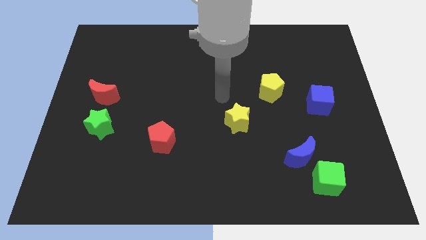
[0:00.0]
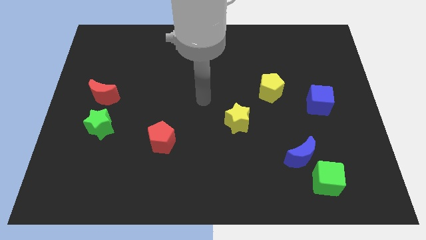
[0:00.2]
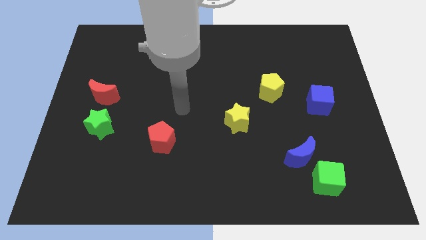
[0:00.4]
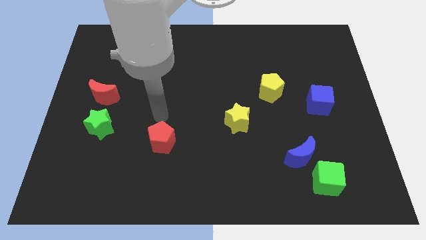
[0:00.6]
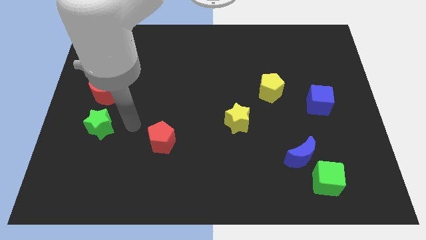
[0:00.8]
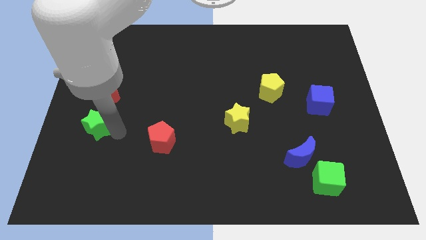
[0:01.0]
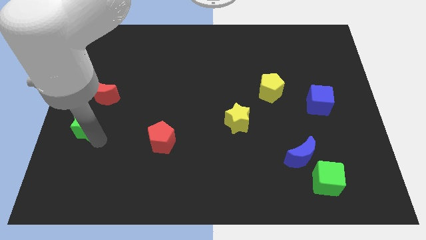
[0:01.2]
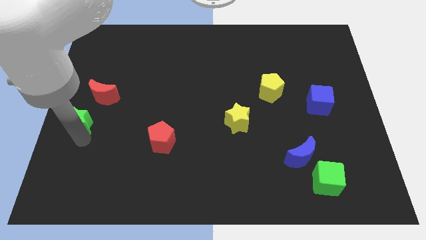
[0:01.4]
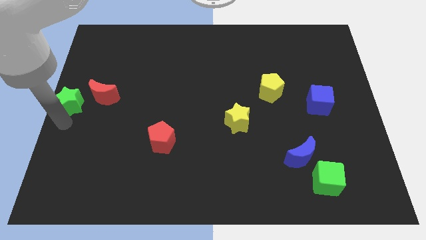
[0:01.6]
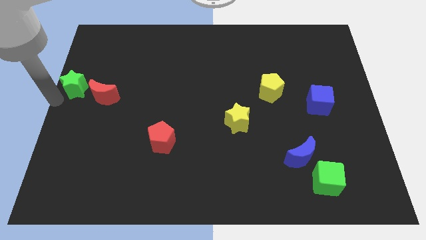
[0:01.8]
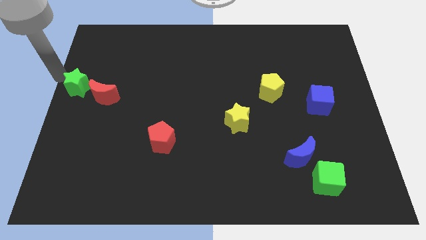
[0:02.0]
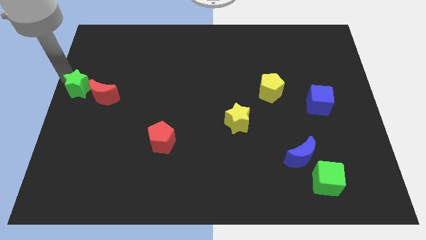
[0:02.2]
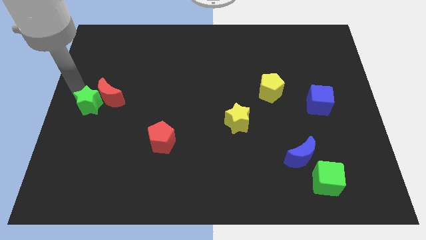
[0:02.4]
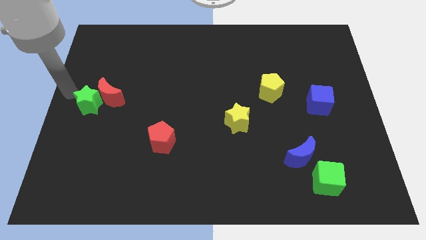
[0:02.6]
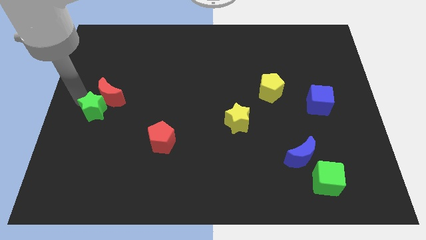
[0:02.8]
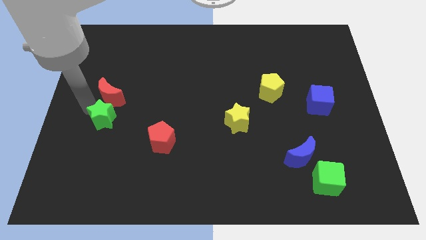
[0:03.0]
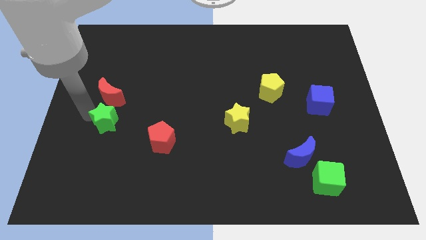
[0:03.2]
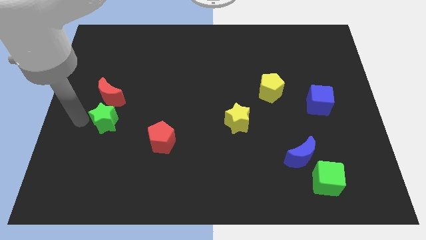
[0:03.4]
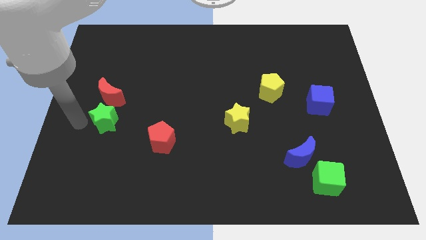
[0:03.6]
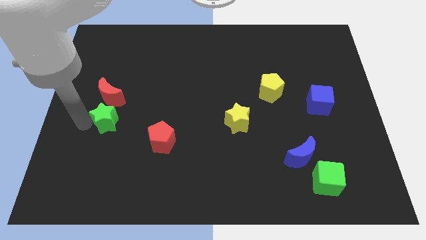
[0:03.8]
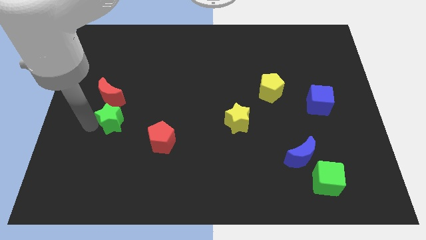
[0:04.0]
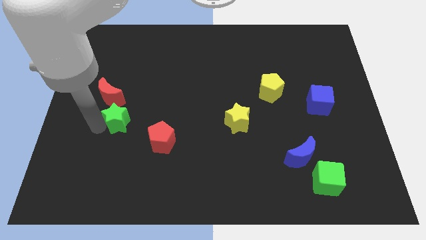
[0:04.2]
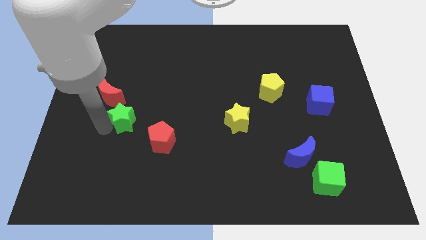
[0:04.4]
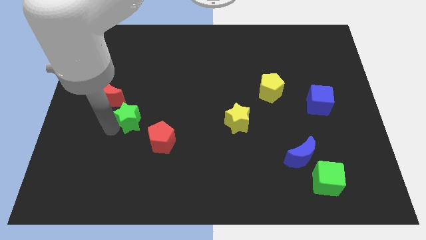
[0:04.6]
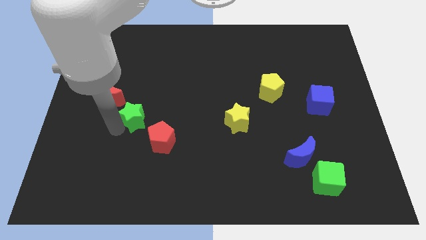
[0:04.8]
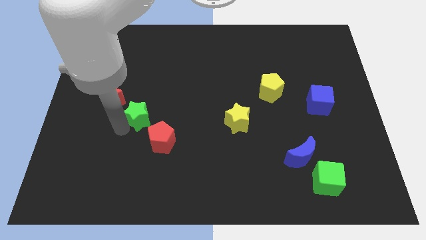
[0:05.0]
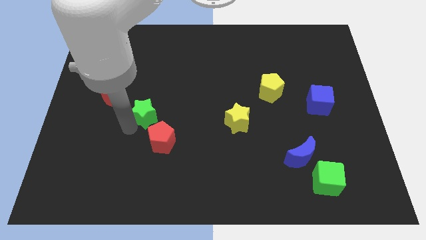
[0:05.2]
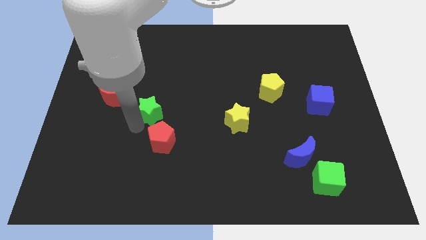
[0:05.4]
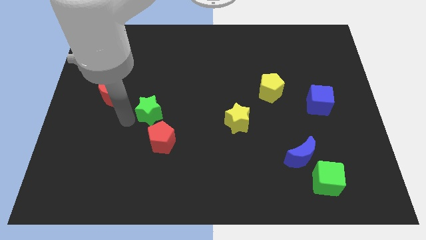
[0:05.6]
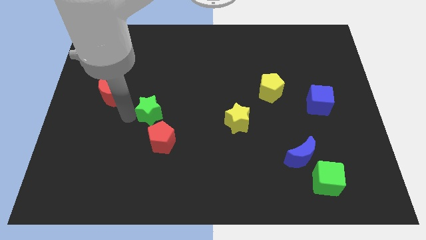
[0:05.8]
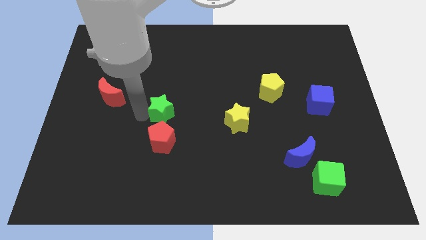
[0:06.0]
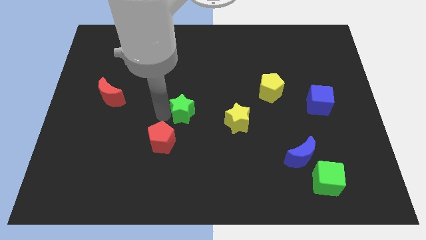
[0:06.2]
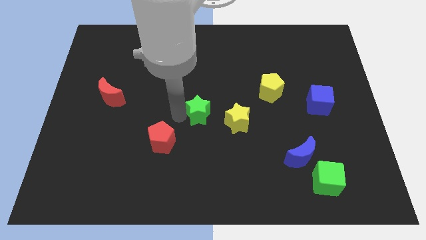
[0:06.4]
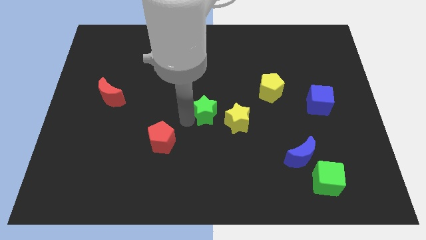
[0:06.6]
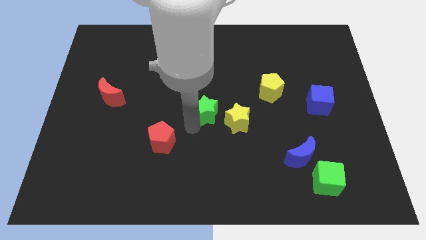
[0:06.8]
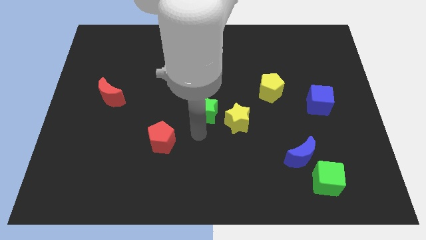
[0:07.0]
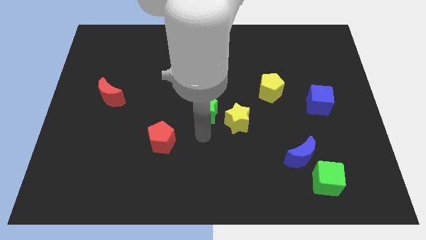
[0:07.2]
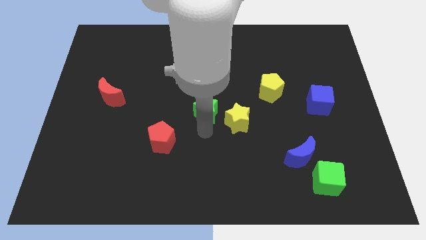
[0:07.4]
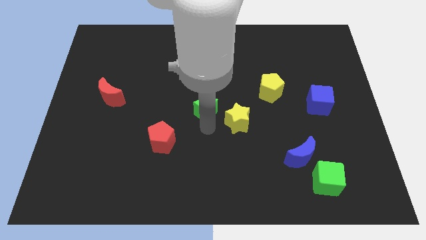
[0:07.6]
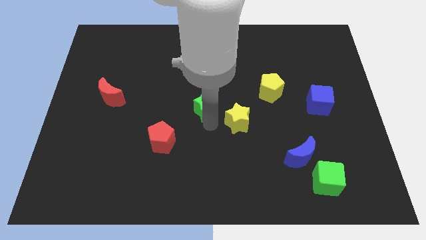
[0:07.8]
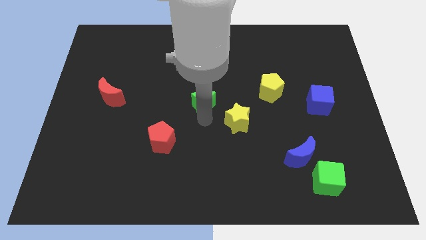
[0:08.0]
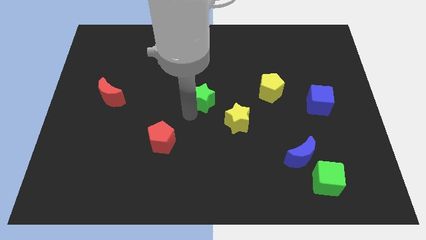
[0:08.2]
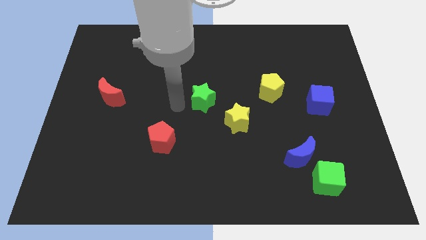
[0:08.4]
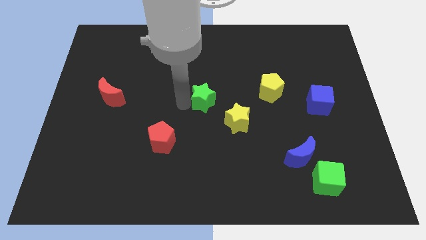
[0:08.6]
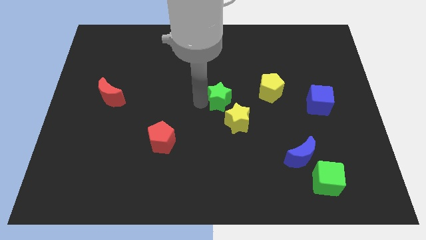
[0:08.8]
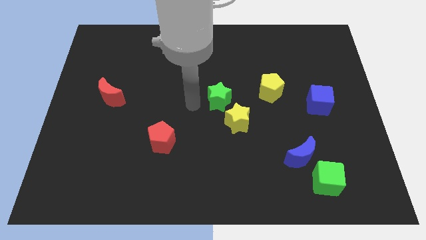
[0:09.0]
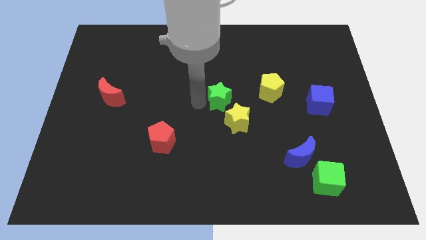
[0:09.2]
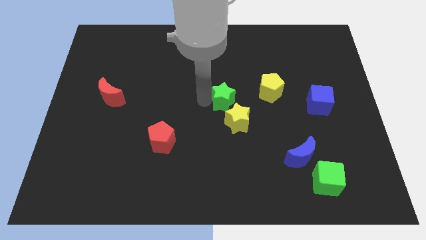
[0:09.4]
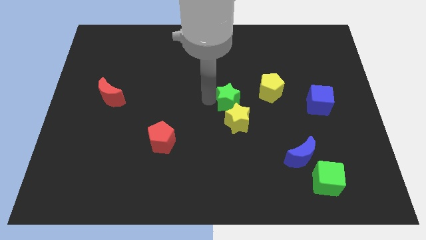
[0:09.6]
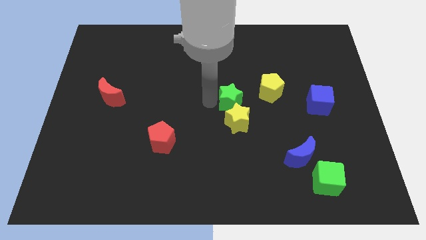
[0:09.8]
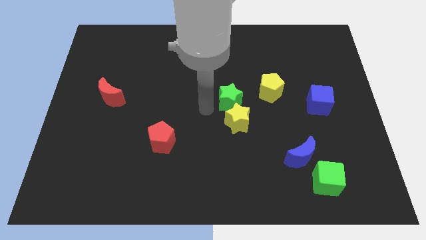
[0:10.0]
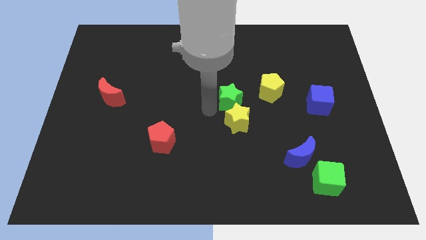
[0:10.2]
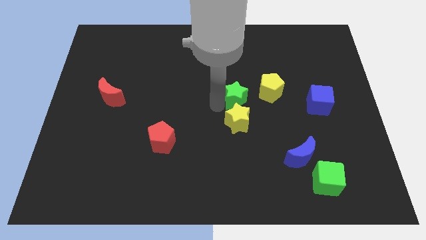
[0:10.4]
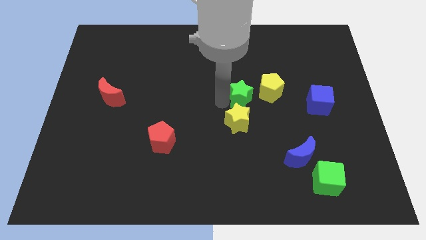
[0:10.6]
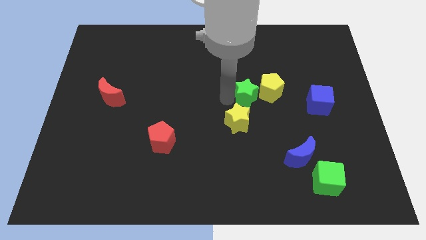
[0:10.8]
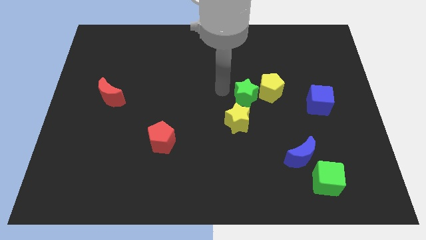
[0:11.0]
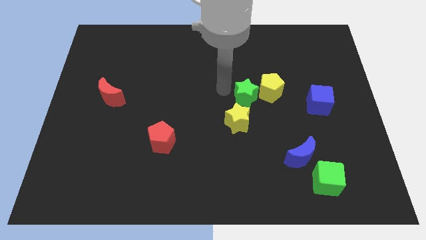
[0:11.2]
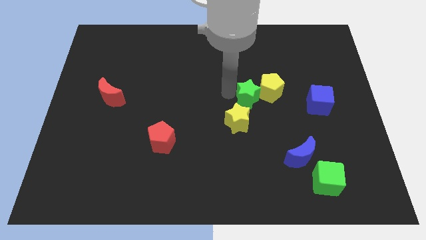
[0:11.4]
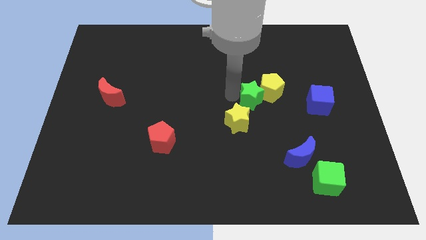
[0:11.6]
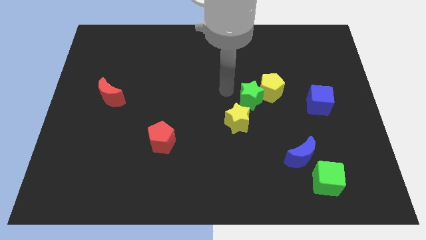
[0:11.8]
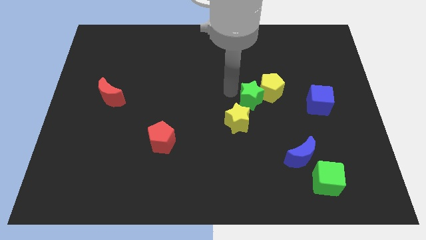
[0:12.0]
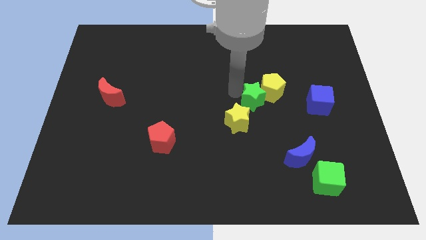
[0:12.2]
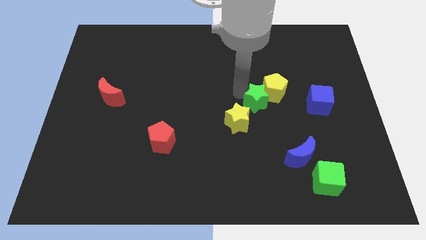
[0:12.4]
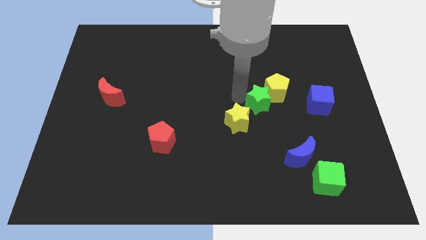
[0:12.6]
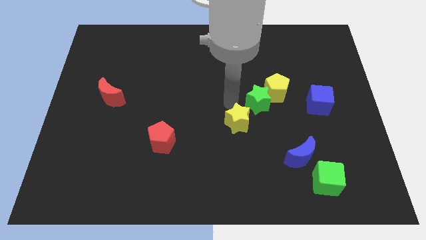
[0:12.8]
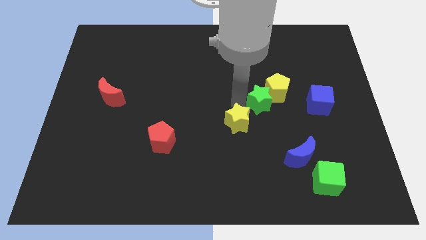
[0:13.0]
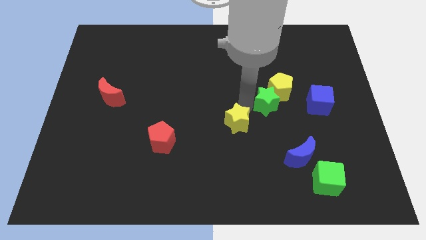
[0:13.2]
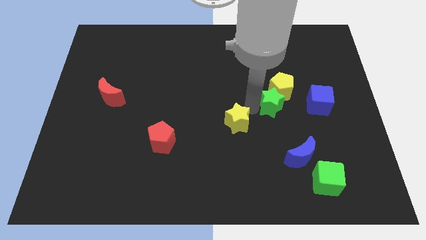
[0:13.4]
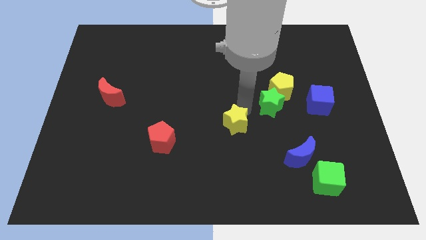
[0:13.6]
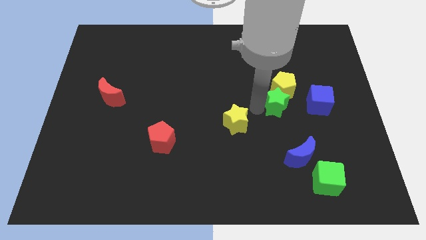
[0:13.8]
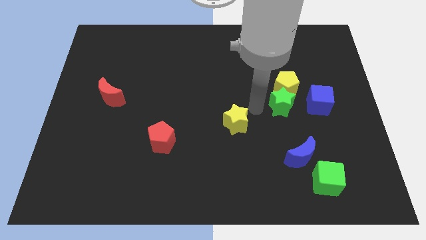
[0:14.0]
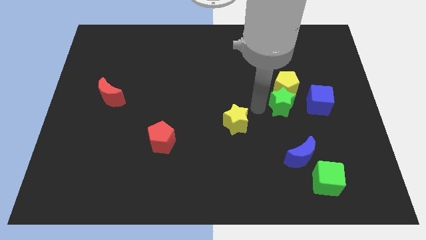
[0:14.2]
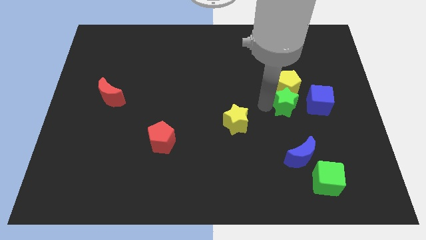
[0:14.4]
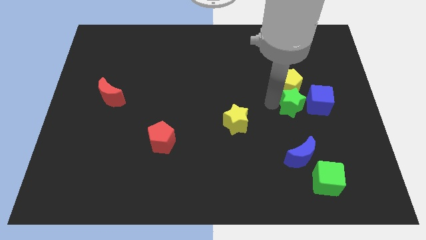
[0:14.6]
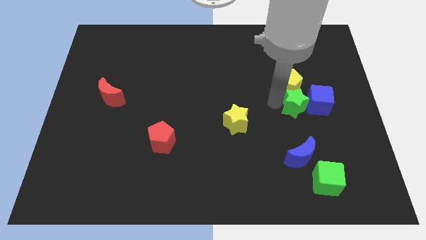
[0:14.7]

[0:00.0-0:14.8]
push the green star close to the blue cube
